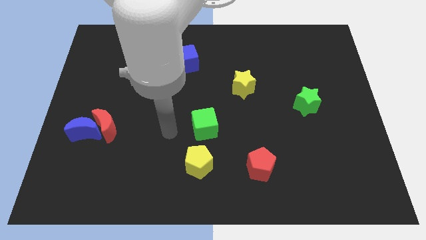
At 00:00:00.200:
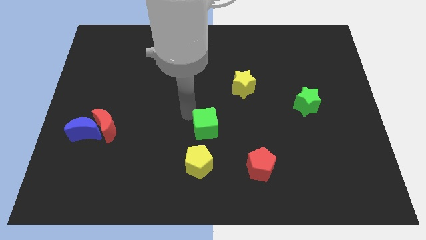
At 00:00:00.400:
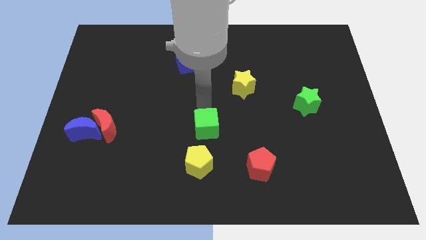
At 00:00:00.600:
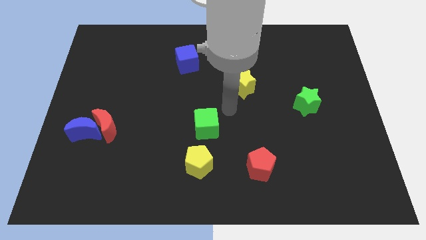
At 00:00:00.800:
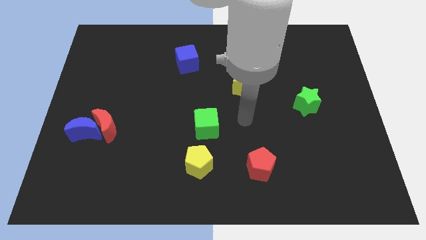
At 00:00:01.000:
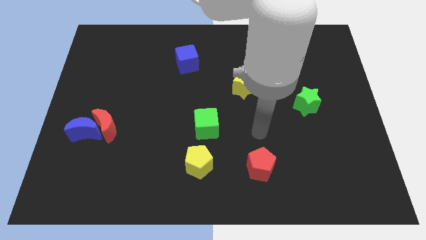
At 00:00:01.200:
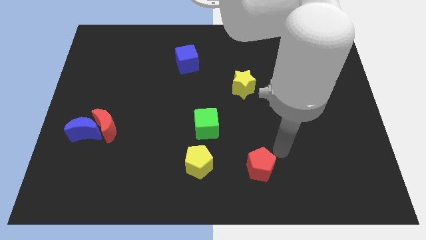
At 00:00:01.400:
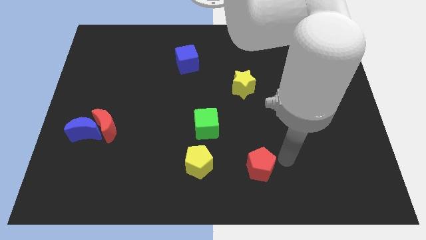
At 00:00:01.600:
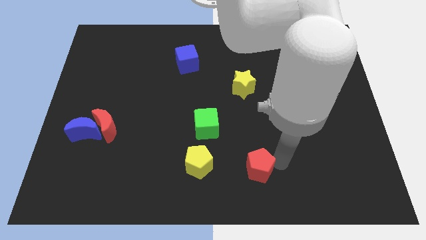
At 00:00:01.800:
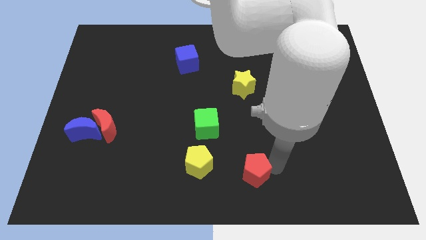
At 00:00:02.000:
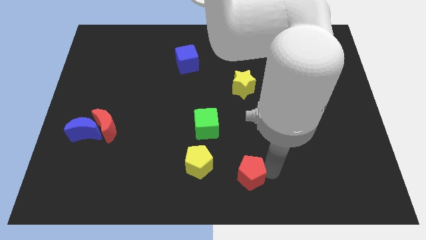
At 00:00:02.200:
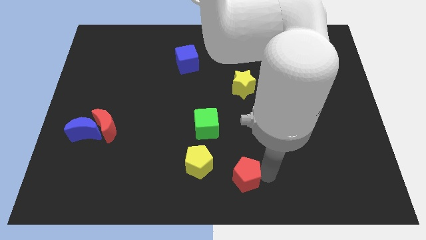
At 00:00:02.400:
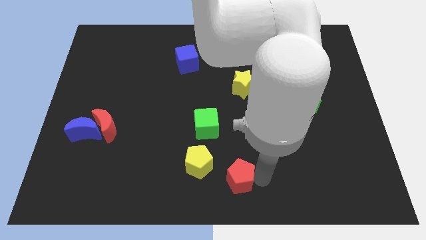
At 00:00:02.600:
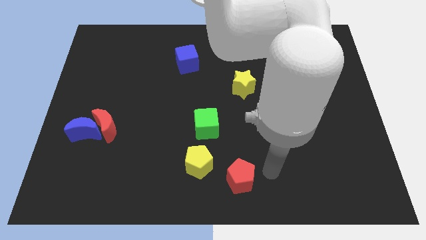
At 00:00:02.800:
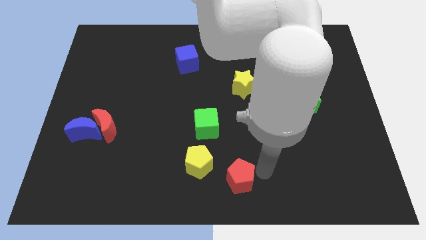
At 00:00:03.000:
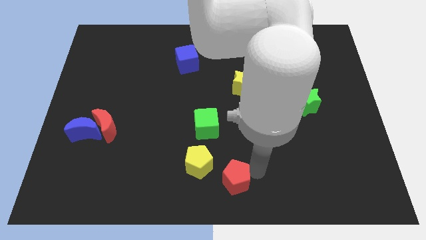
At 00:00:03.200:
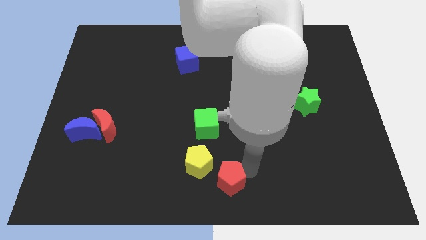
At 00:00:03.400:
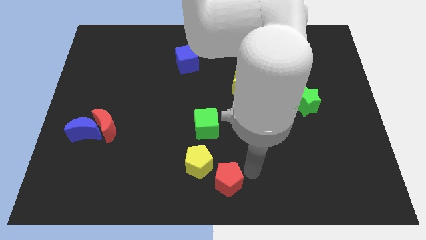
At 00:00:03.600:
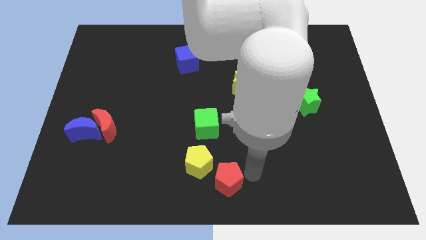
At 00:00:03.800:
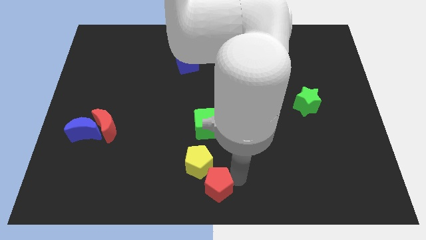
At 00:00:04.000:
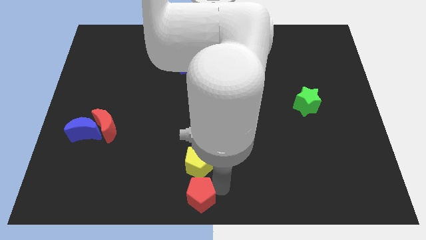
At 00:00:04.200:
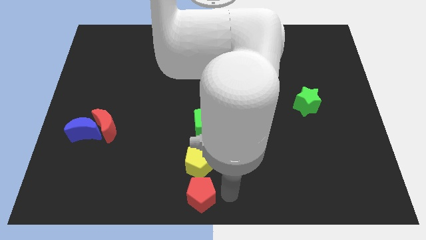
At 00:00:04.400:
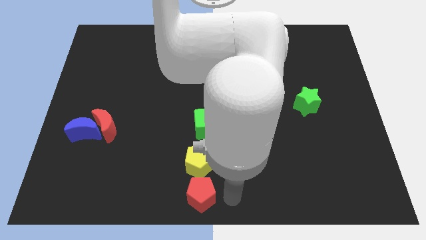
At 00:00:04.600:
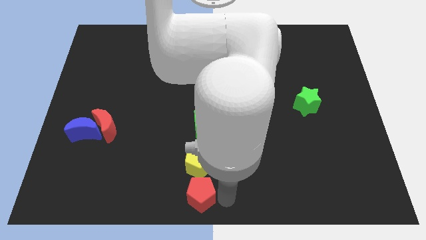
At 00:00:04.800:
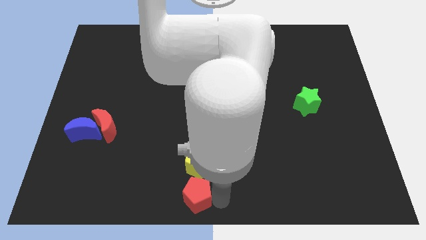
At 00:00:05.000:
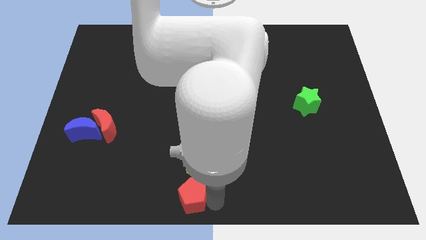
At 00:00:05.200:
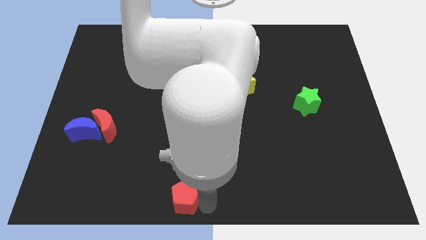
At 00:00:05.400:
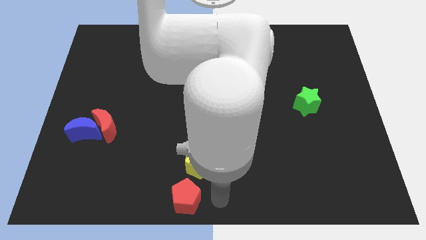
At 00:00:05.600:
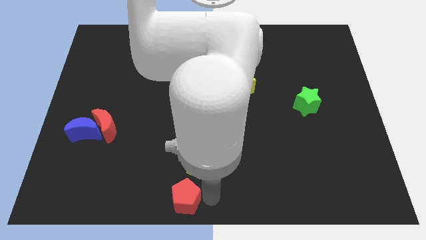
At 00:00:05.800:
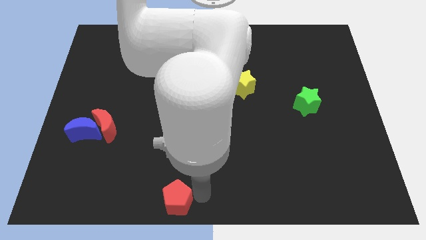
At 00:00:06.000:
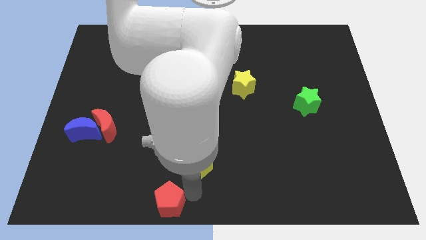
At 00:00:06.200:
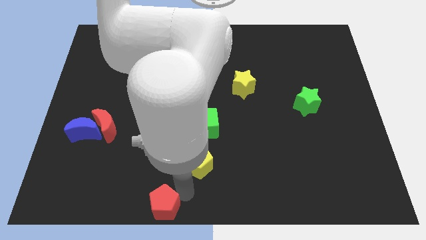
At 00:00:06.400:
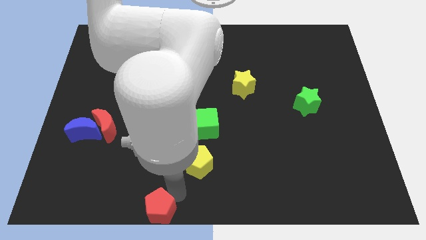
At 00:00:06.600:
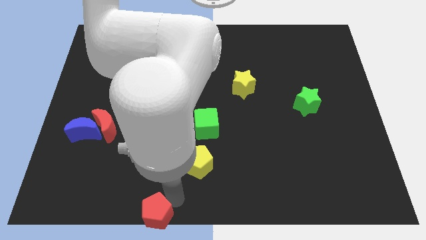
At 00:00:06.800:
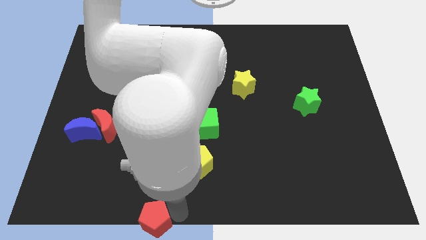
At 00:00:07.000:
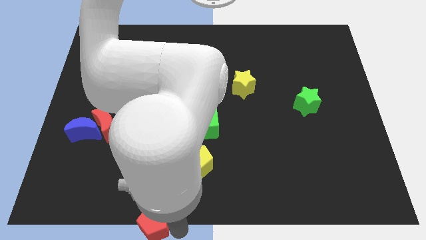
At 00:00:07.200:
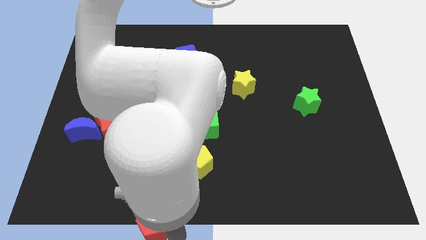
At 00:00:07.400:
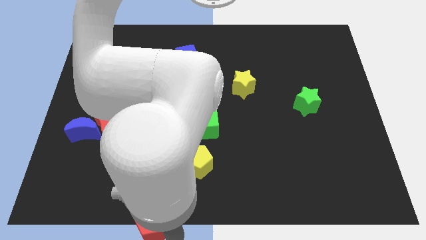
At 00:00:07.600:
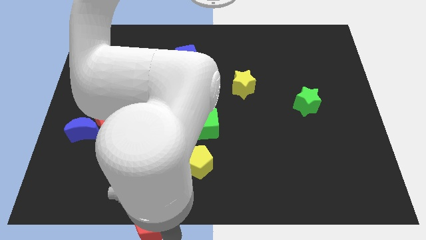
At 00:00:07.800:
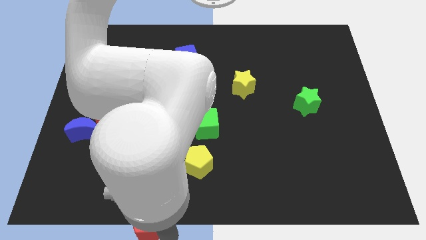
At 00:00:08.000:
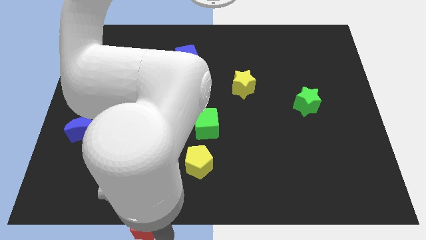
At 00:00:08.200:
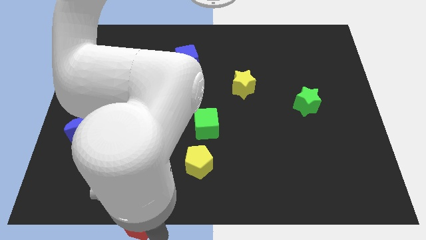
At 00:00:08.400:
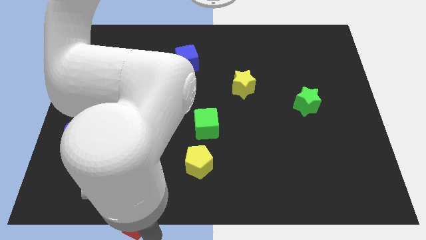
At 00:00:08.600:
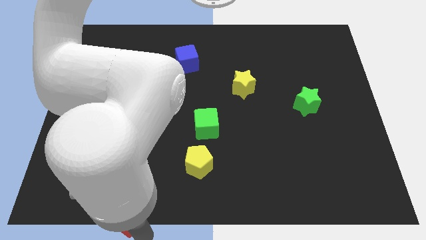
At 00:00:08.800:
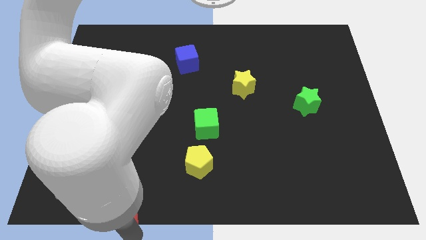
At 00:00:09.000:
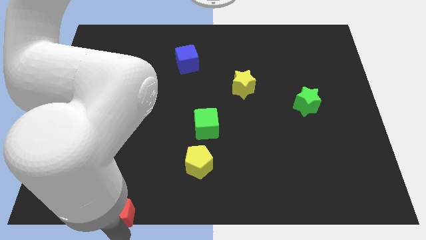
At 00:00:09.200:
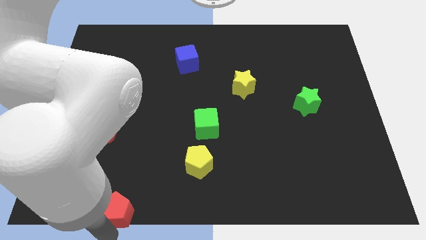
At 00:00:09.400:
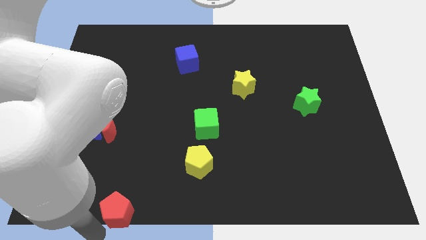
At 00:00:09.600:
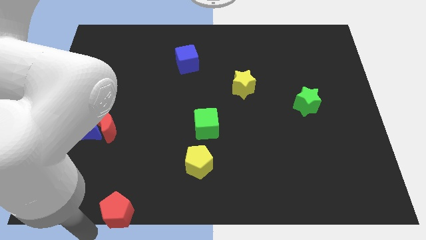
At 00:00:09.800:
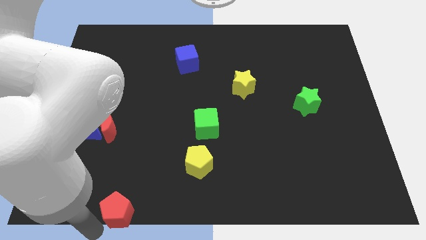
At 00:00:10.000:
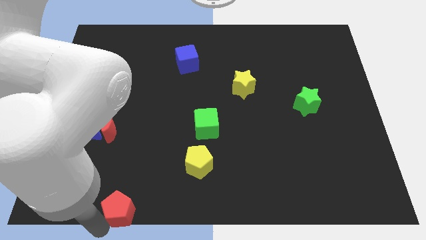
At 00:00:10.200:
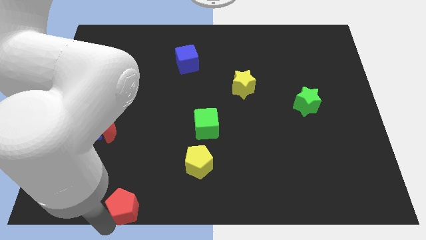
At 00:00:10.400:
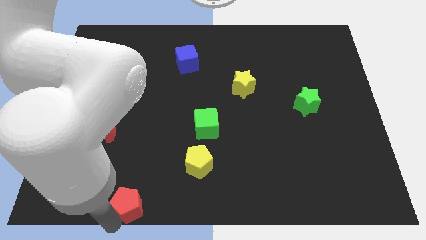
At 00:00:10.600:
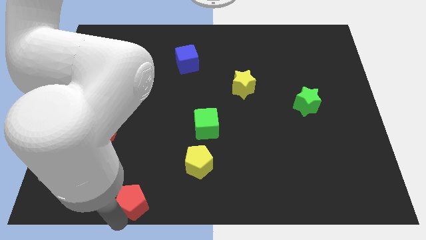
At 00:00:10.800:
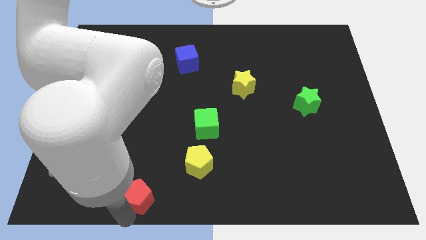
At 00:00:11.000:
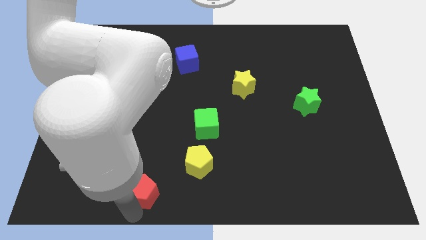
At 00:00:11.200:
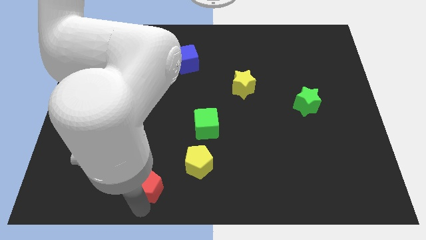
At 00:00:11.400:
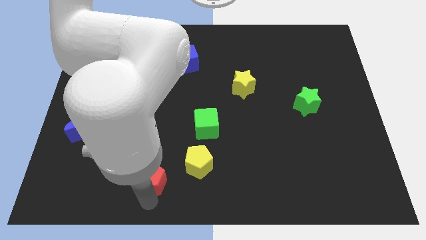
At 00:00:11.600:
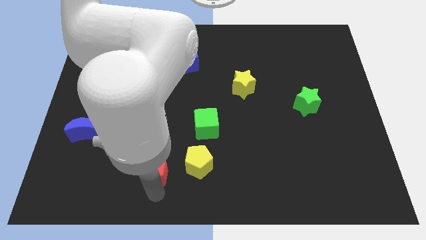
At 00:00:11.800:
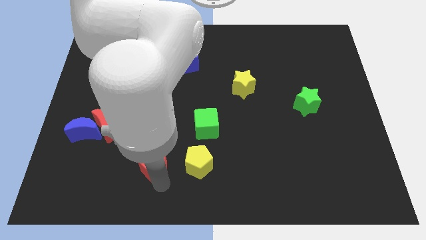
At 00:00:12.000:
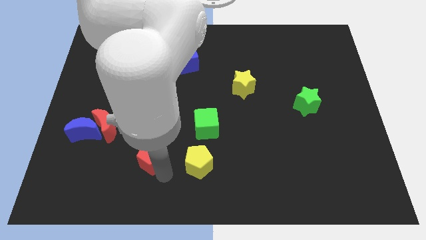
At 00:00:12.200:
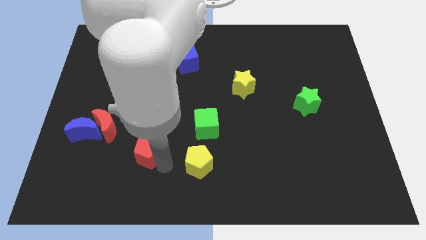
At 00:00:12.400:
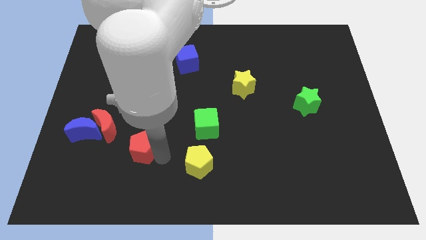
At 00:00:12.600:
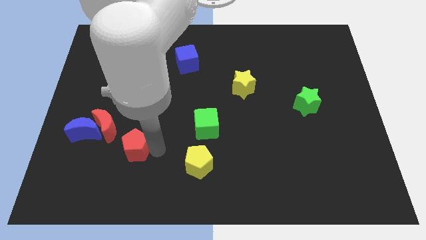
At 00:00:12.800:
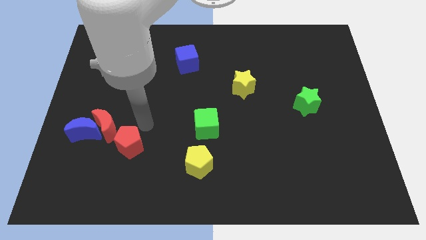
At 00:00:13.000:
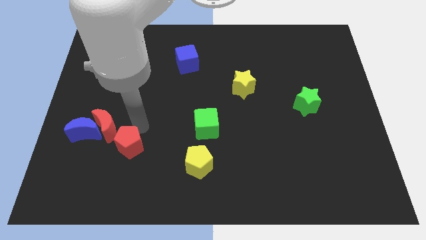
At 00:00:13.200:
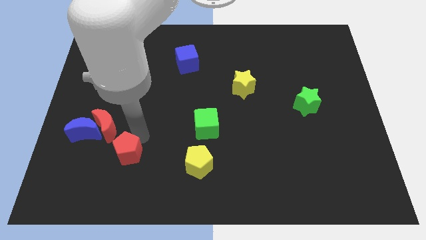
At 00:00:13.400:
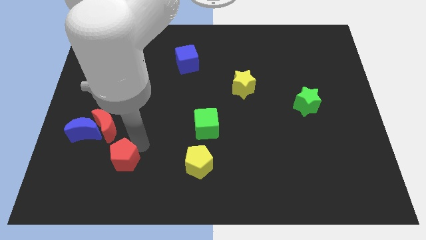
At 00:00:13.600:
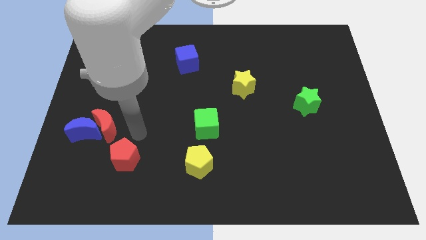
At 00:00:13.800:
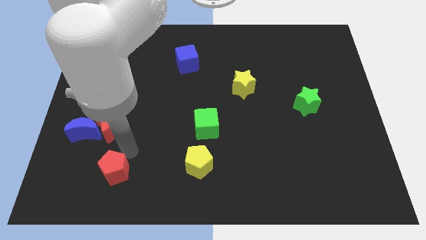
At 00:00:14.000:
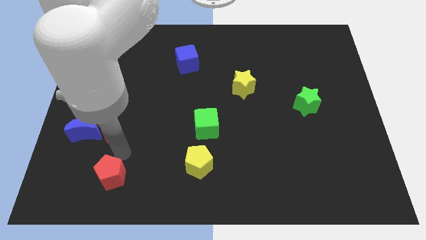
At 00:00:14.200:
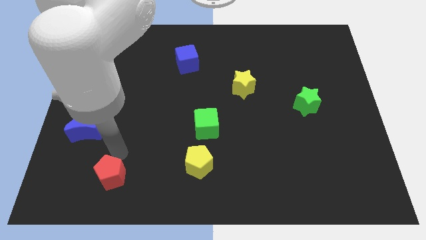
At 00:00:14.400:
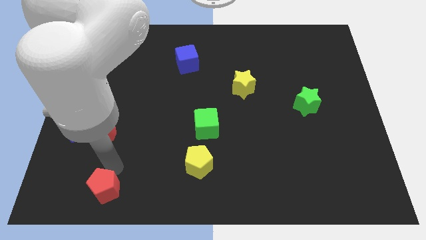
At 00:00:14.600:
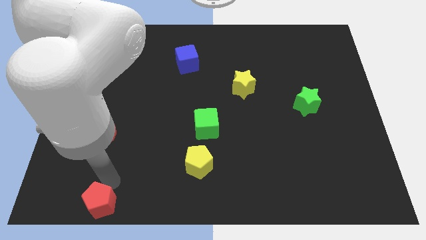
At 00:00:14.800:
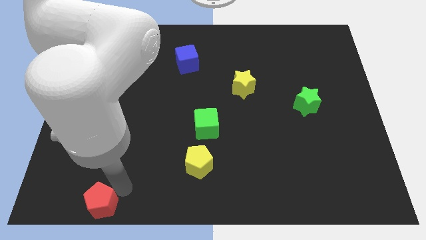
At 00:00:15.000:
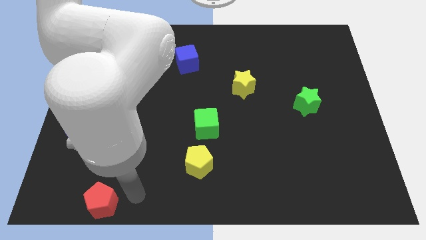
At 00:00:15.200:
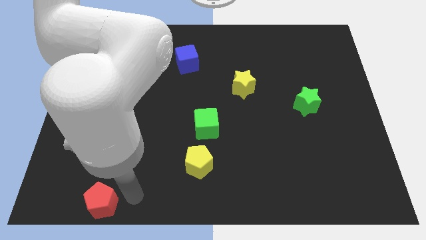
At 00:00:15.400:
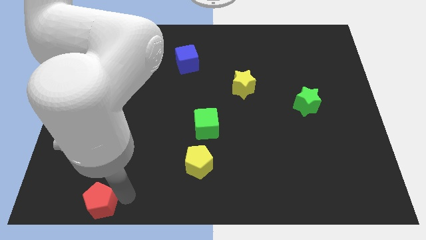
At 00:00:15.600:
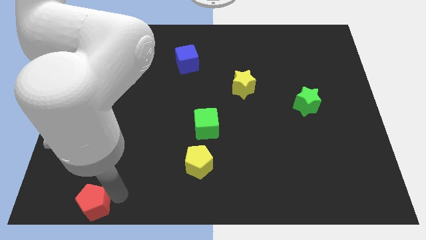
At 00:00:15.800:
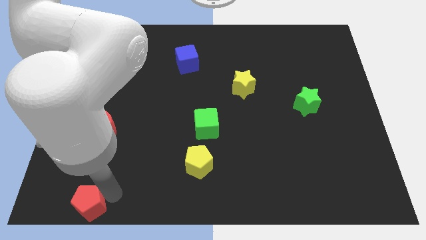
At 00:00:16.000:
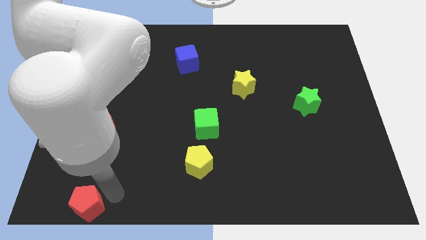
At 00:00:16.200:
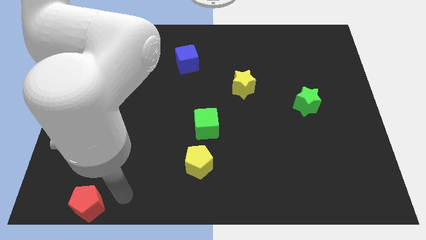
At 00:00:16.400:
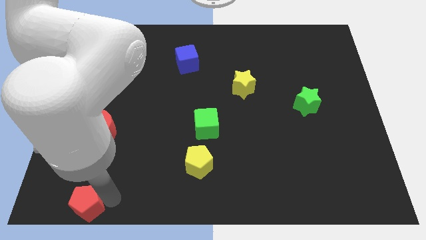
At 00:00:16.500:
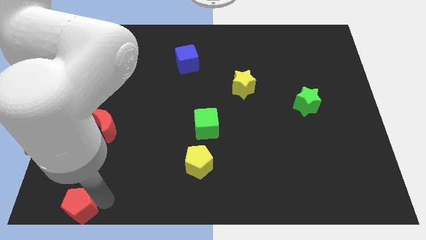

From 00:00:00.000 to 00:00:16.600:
move the red pentagon to the bottom left
